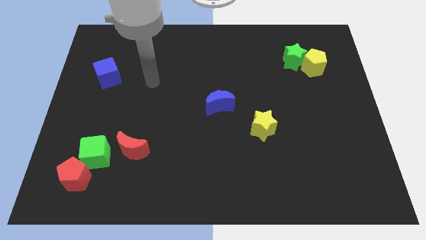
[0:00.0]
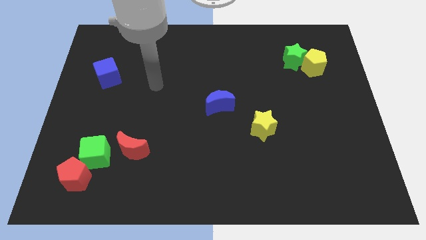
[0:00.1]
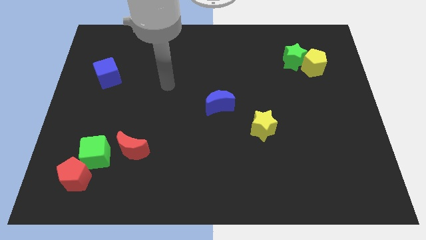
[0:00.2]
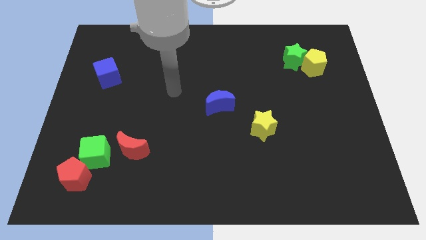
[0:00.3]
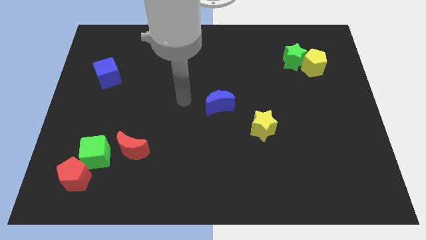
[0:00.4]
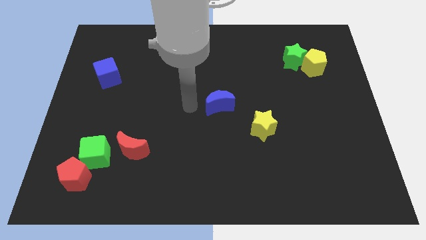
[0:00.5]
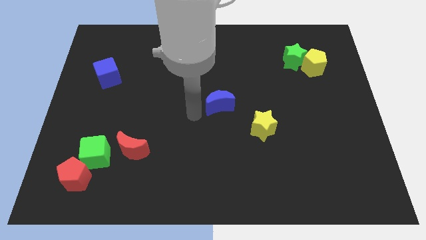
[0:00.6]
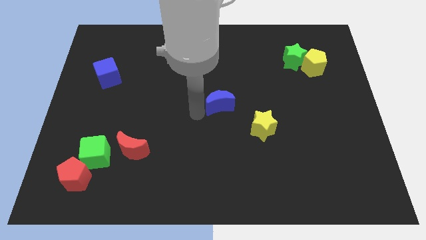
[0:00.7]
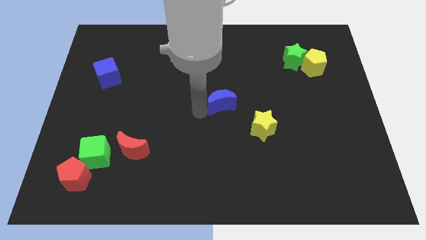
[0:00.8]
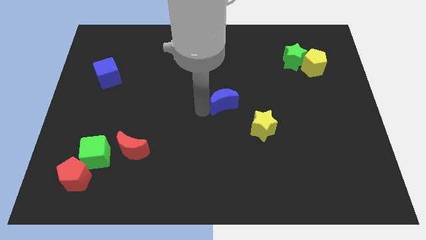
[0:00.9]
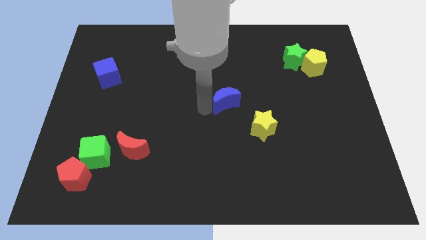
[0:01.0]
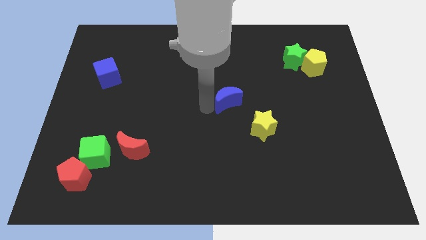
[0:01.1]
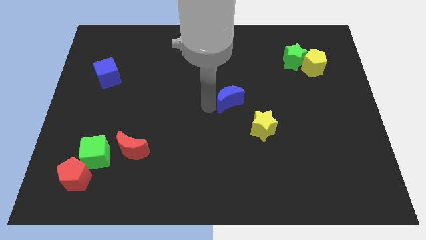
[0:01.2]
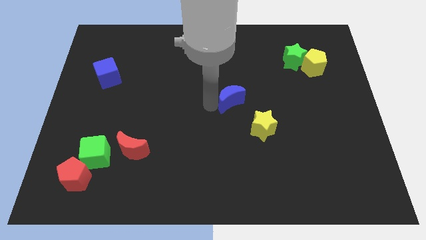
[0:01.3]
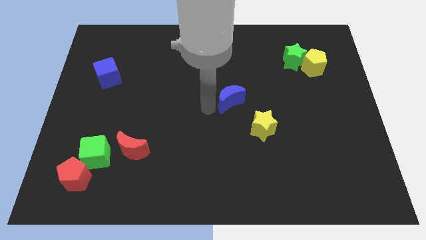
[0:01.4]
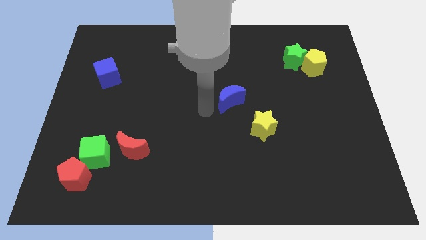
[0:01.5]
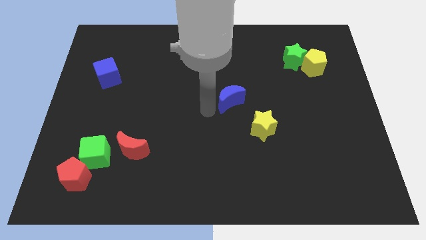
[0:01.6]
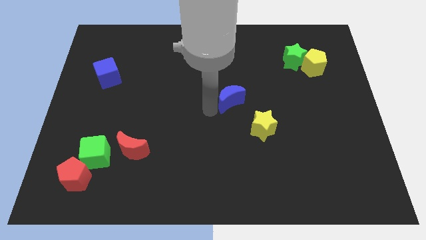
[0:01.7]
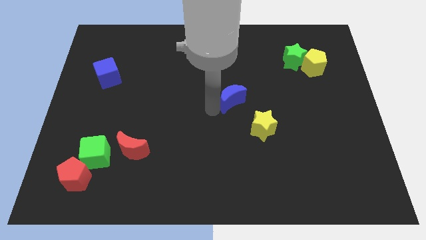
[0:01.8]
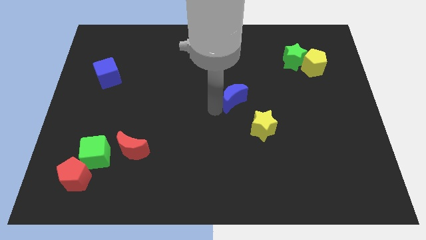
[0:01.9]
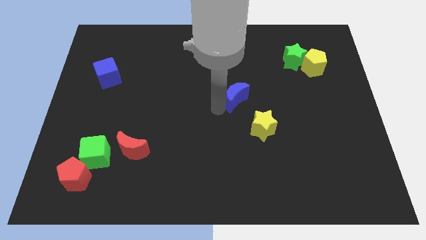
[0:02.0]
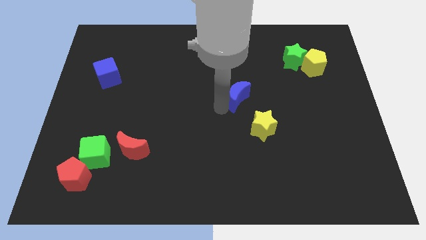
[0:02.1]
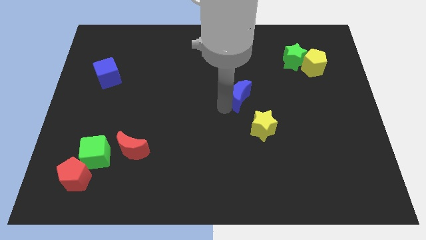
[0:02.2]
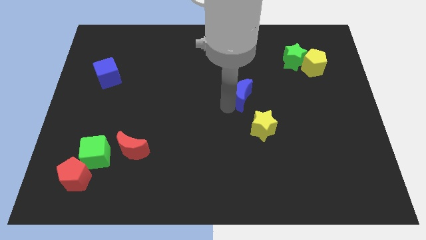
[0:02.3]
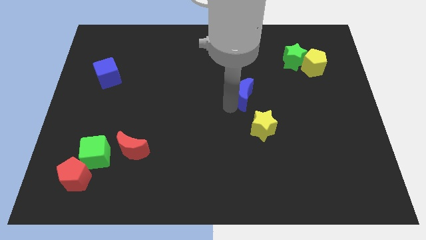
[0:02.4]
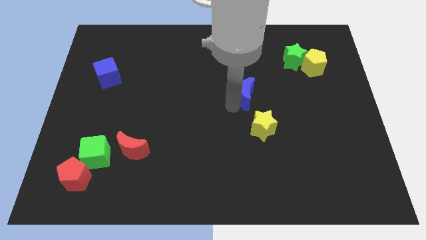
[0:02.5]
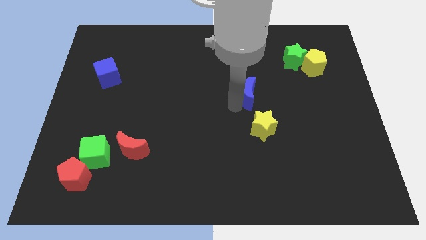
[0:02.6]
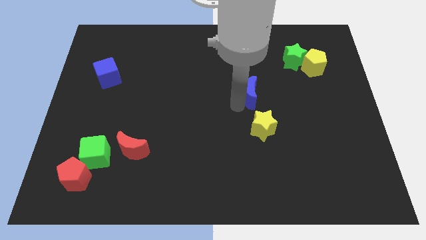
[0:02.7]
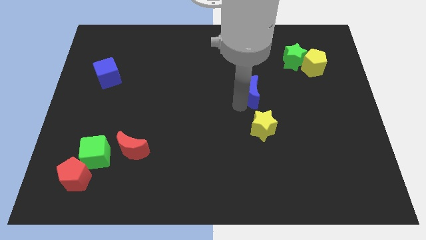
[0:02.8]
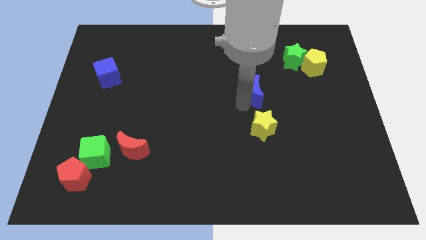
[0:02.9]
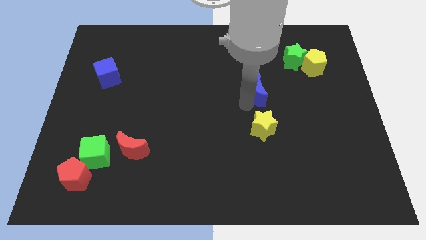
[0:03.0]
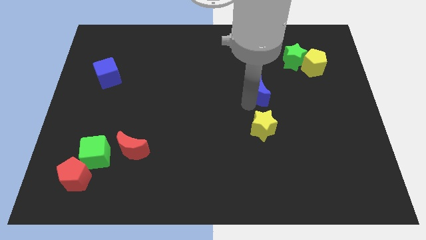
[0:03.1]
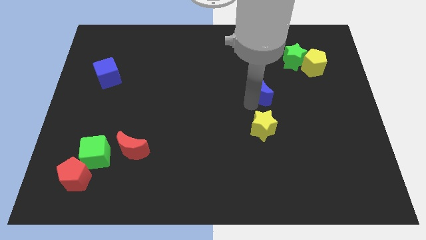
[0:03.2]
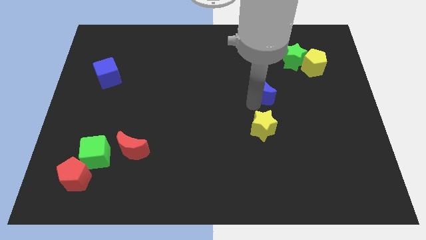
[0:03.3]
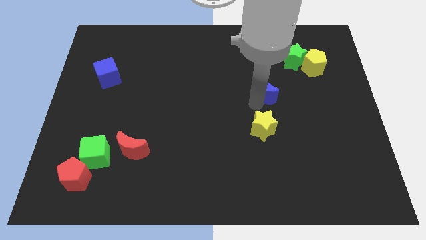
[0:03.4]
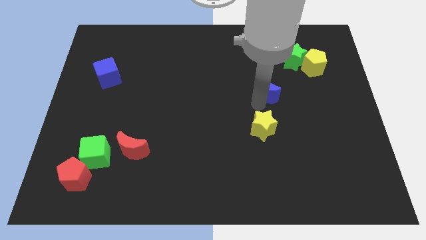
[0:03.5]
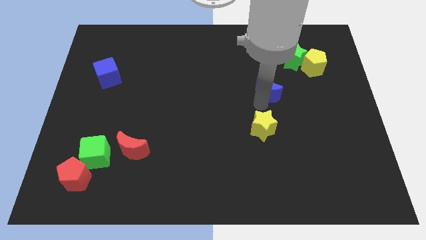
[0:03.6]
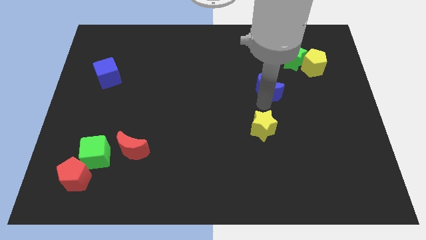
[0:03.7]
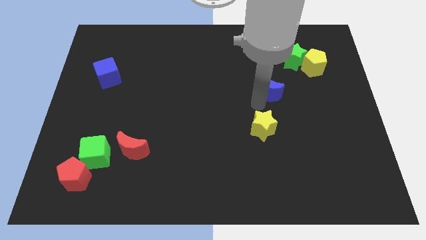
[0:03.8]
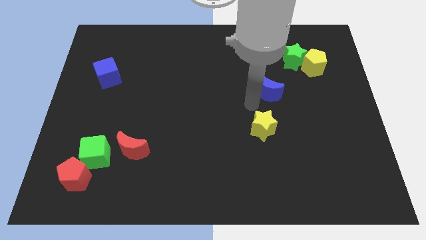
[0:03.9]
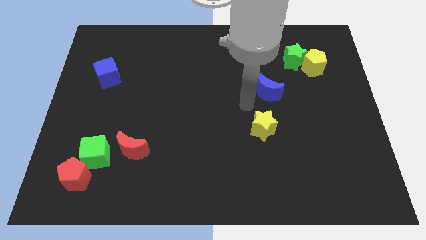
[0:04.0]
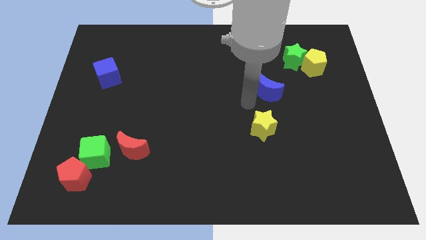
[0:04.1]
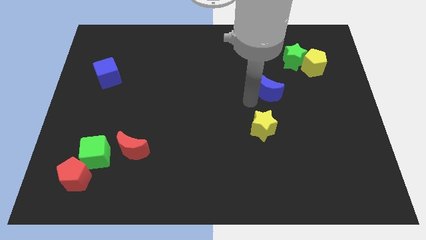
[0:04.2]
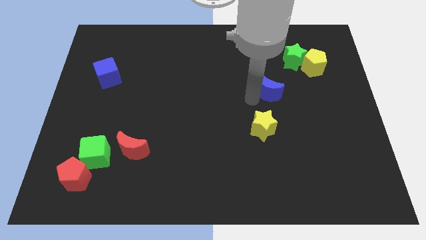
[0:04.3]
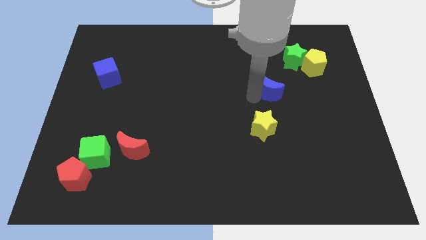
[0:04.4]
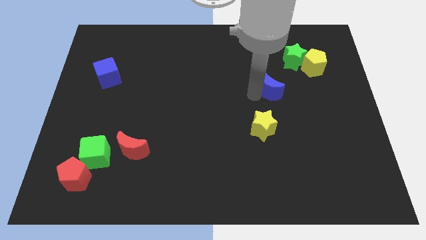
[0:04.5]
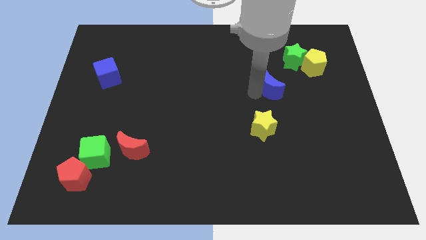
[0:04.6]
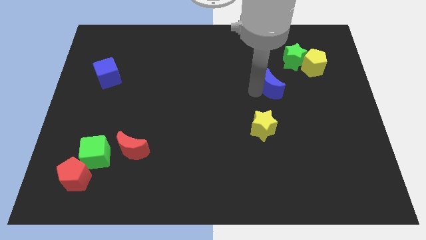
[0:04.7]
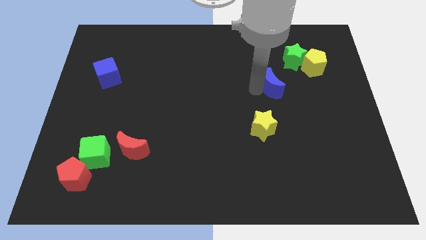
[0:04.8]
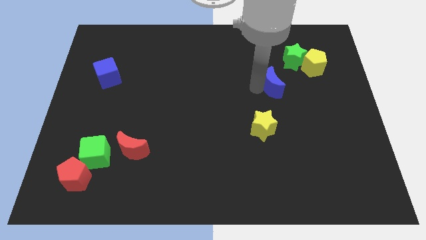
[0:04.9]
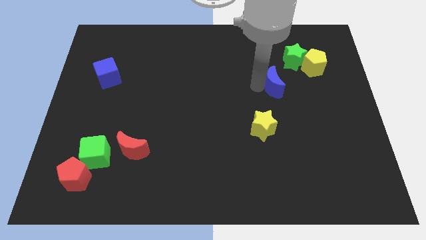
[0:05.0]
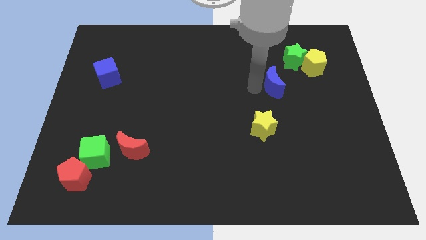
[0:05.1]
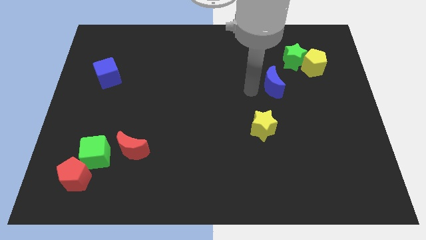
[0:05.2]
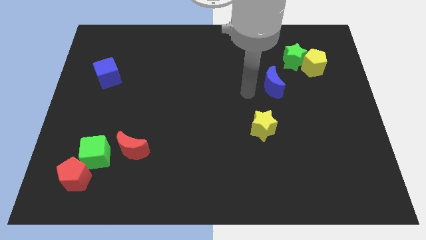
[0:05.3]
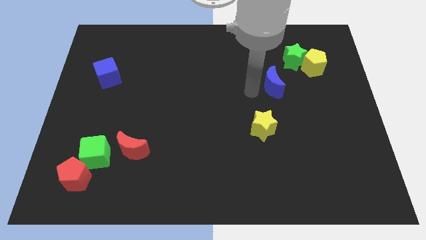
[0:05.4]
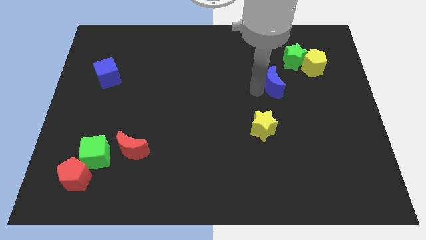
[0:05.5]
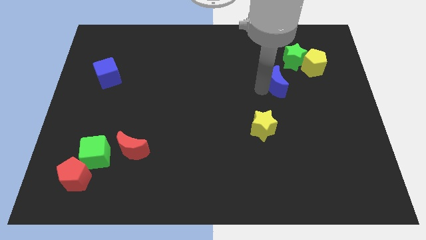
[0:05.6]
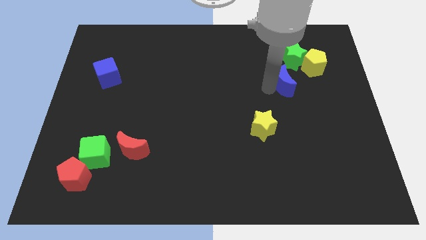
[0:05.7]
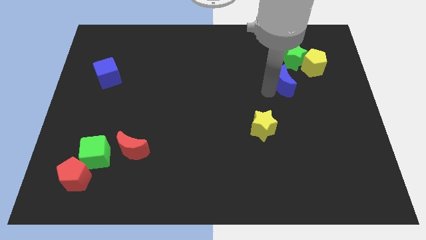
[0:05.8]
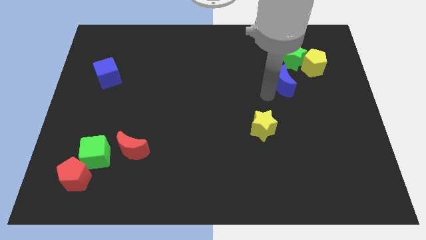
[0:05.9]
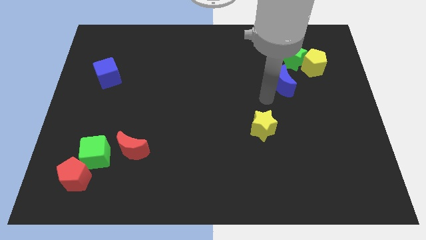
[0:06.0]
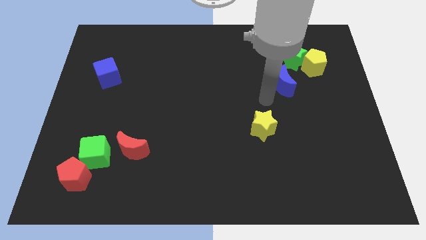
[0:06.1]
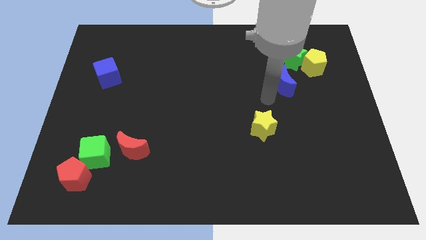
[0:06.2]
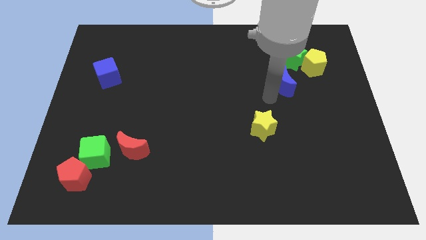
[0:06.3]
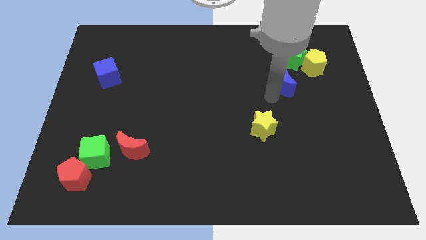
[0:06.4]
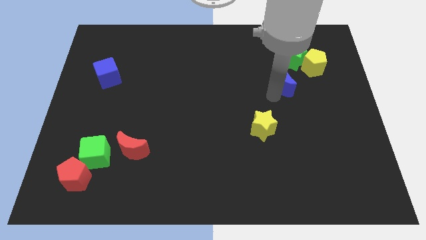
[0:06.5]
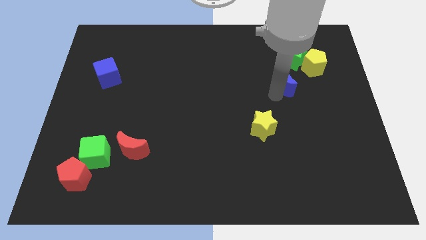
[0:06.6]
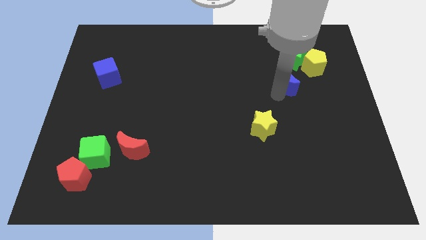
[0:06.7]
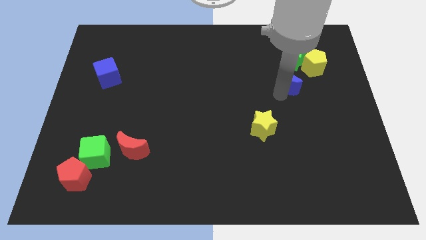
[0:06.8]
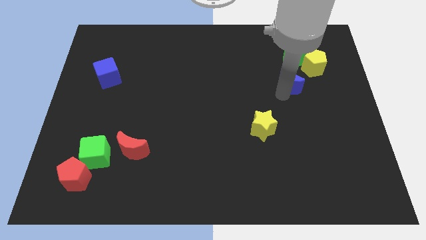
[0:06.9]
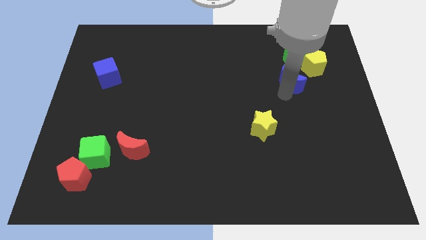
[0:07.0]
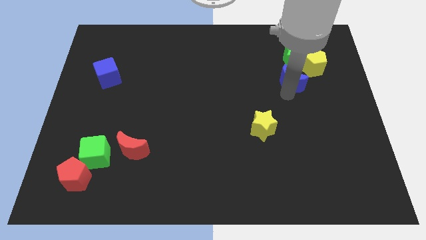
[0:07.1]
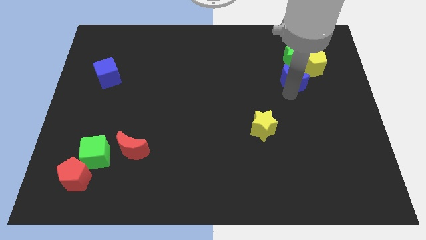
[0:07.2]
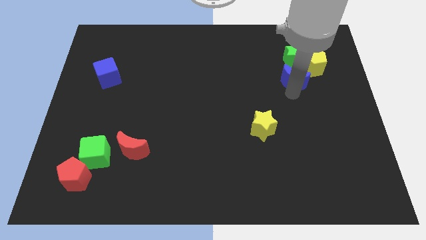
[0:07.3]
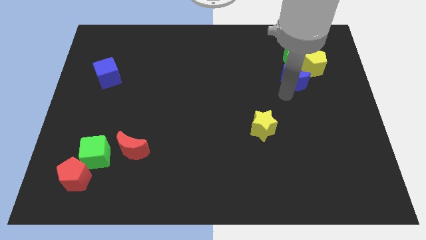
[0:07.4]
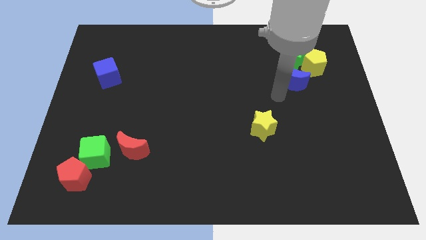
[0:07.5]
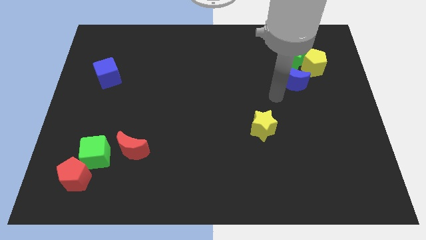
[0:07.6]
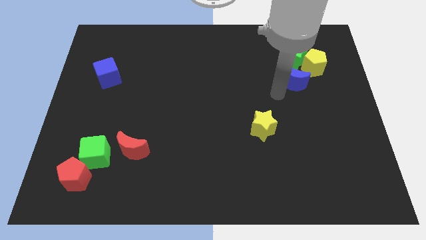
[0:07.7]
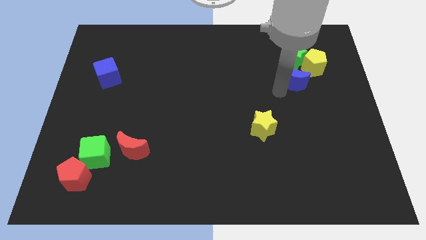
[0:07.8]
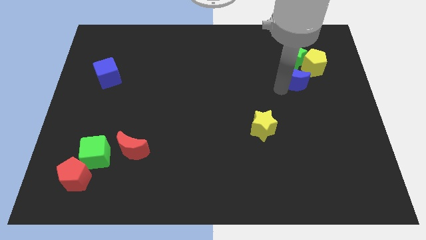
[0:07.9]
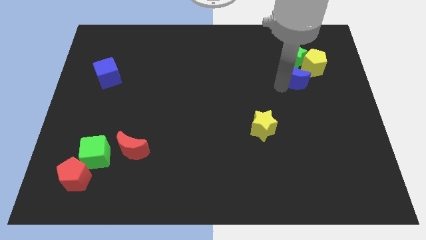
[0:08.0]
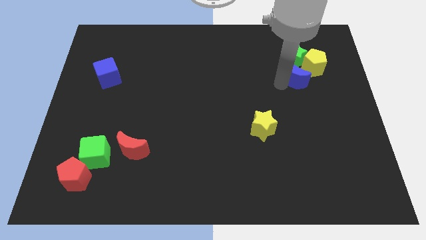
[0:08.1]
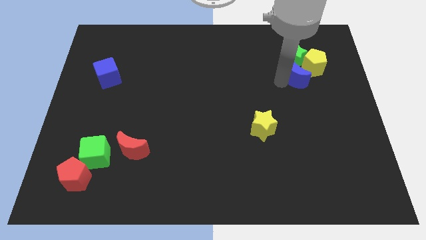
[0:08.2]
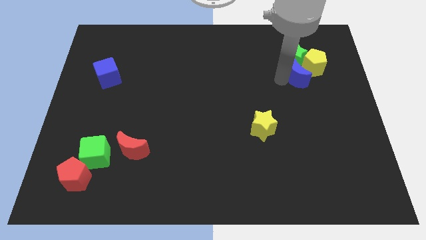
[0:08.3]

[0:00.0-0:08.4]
put the blue moon towards the yellow pentagon
